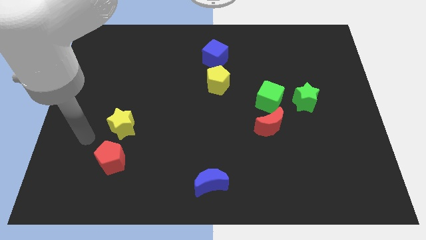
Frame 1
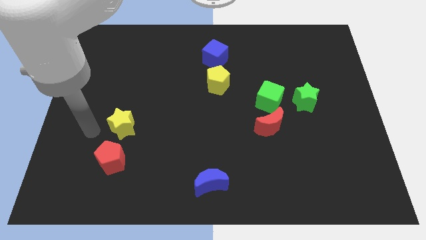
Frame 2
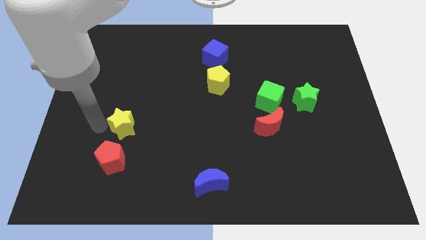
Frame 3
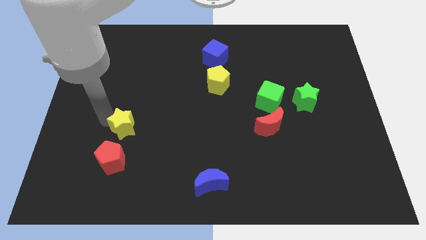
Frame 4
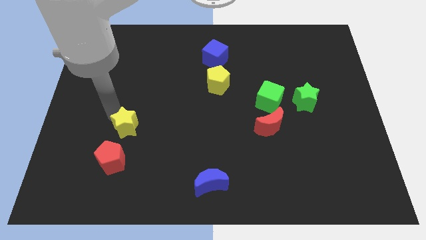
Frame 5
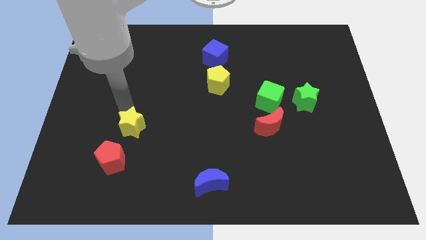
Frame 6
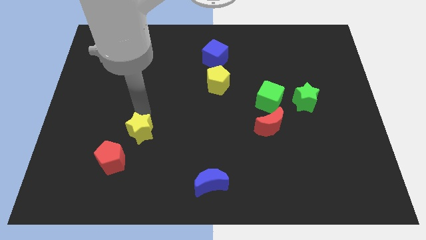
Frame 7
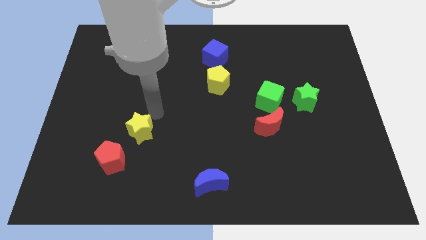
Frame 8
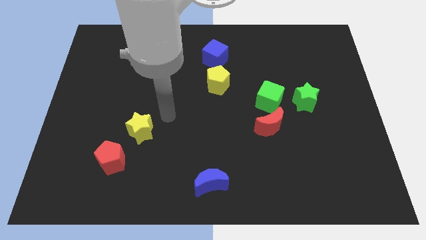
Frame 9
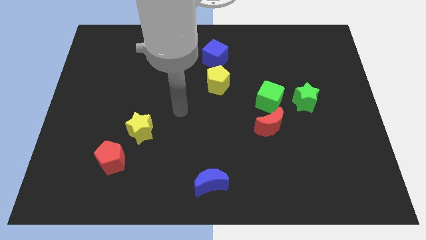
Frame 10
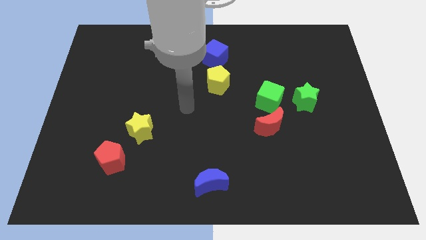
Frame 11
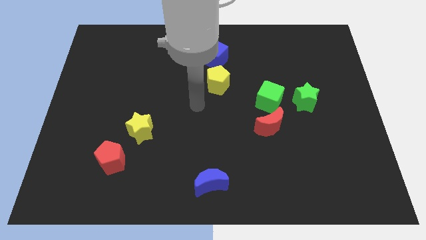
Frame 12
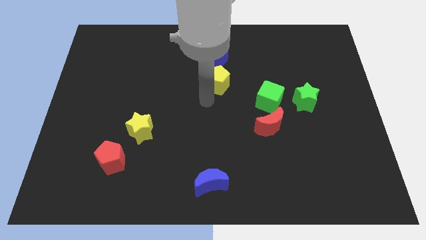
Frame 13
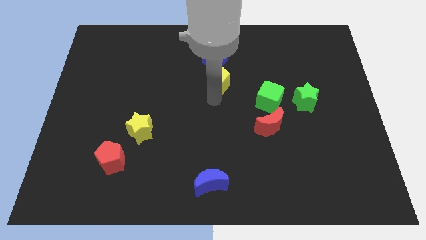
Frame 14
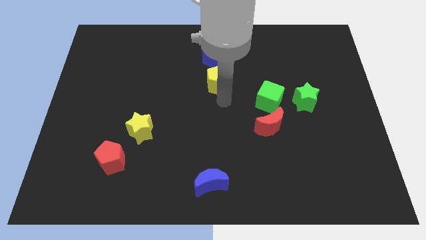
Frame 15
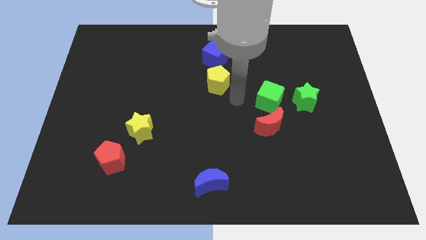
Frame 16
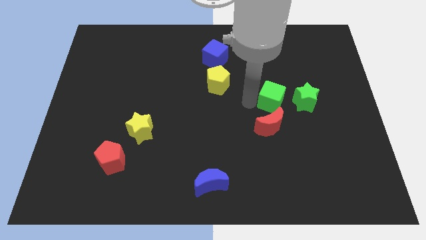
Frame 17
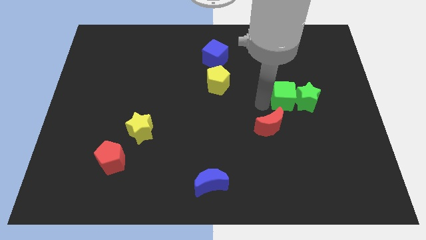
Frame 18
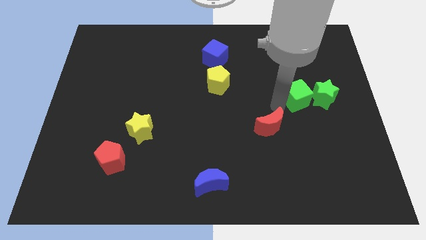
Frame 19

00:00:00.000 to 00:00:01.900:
separate the red moon from the green cube

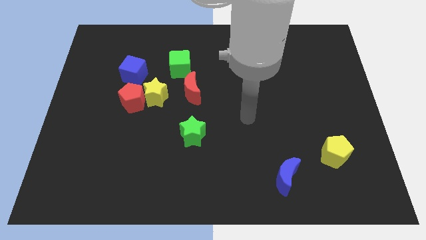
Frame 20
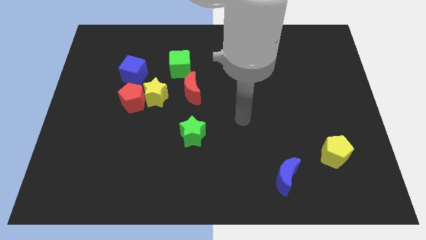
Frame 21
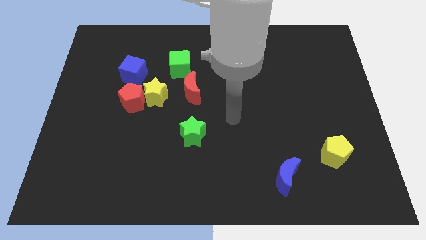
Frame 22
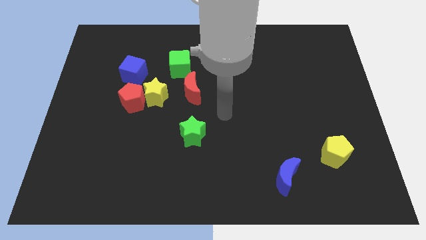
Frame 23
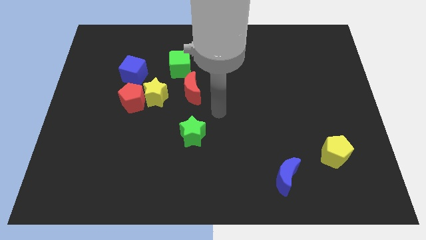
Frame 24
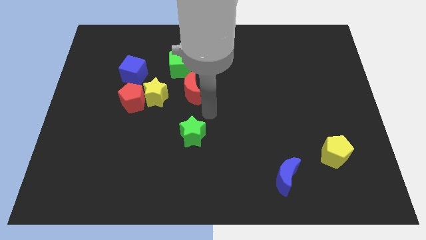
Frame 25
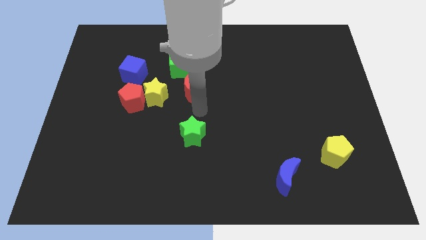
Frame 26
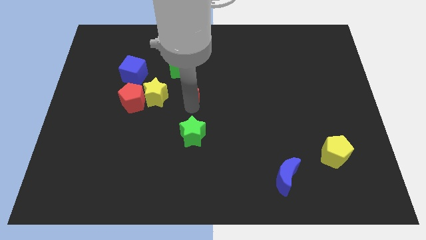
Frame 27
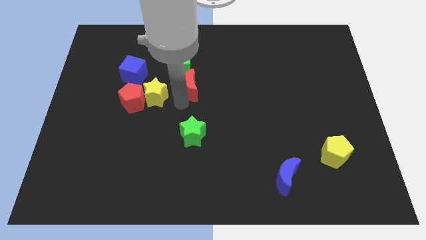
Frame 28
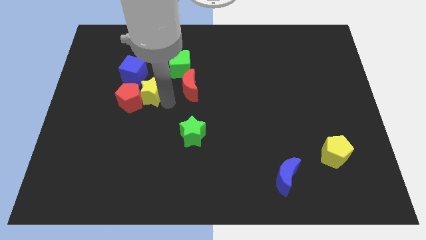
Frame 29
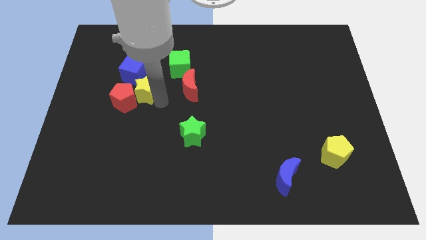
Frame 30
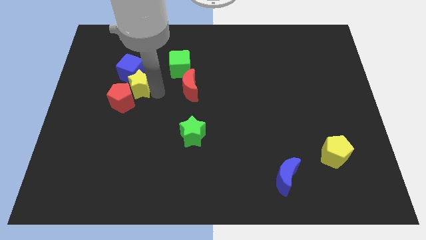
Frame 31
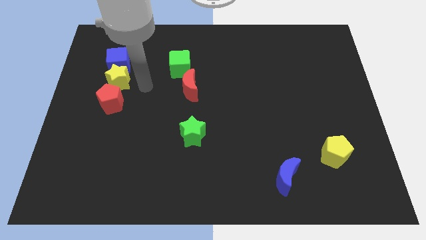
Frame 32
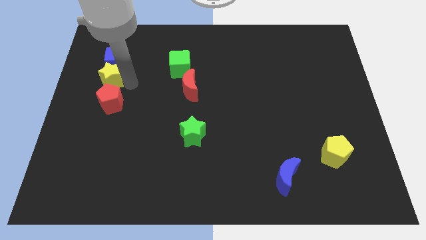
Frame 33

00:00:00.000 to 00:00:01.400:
move the red pentagon away from the yellow star and blue cube

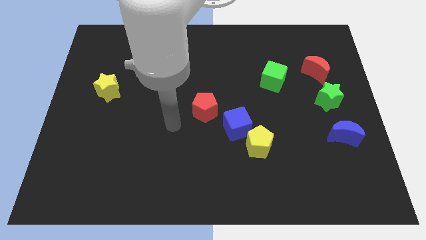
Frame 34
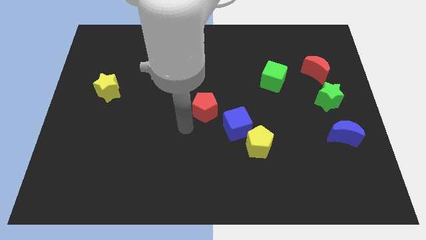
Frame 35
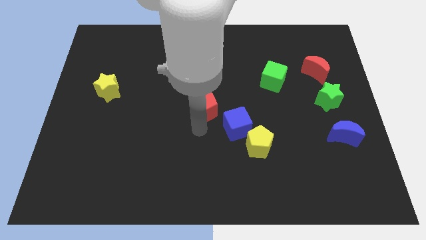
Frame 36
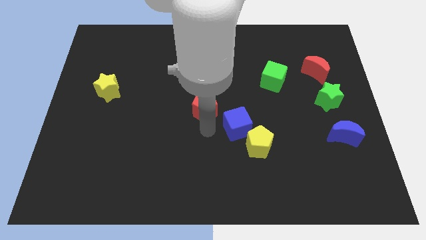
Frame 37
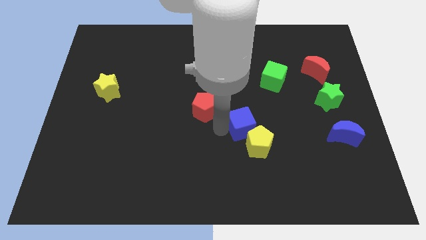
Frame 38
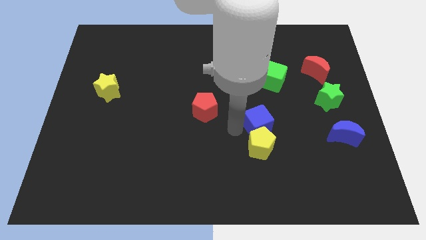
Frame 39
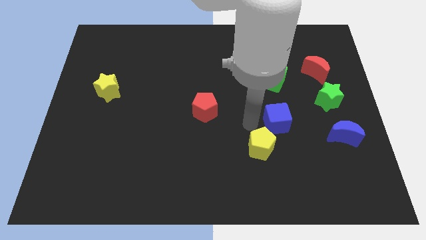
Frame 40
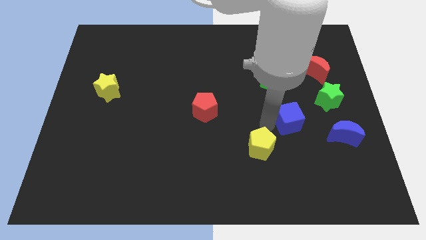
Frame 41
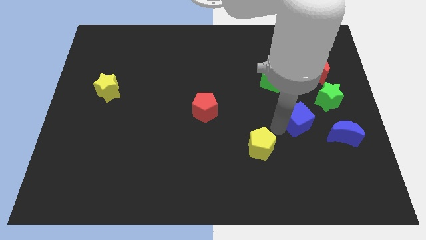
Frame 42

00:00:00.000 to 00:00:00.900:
pull the yellow pentagon apart from the blue cube

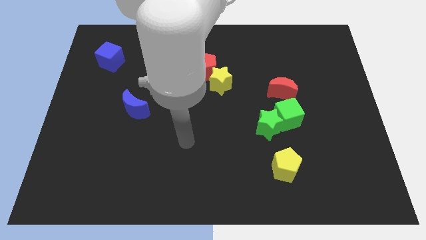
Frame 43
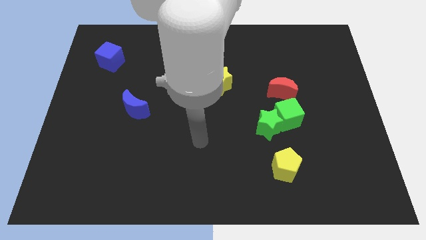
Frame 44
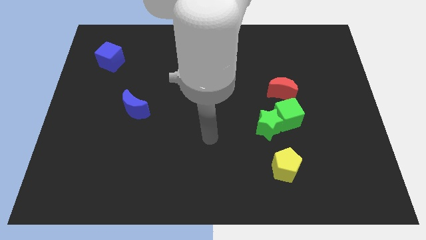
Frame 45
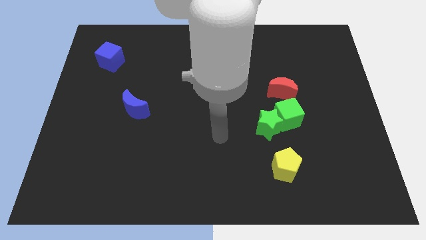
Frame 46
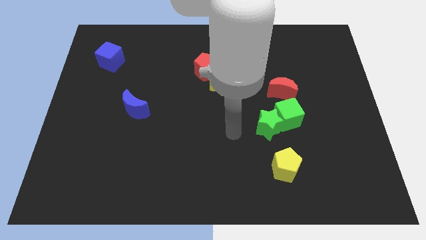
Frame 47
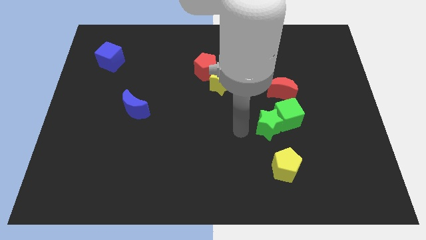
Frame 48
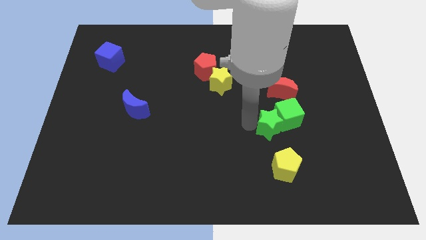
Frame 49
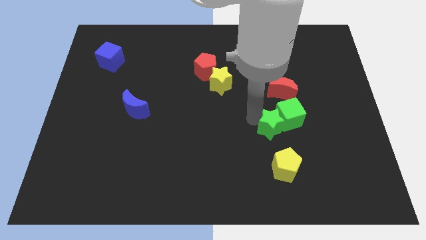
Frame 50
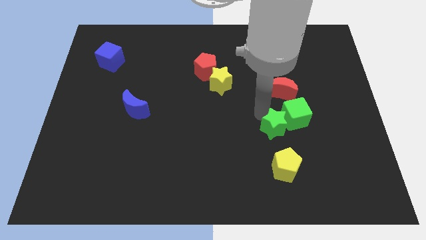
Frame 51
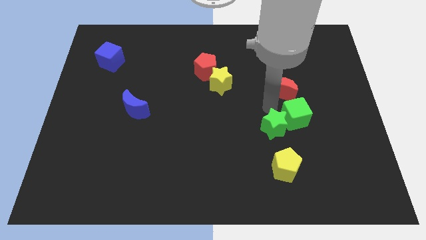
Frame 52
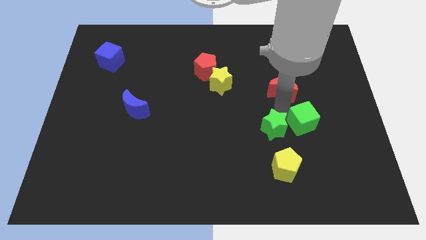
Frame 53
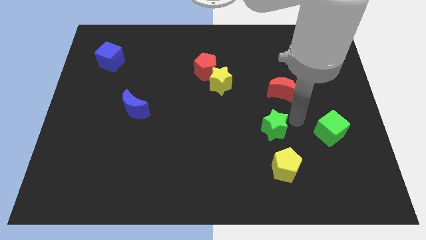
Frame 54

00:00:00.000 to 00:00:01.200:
move the green star away from the green cube

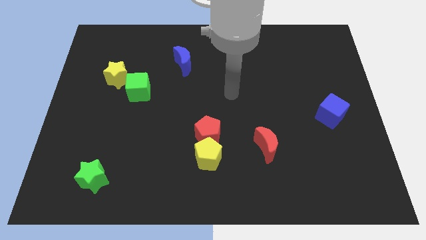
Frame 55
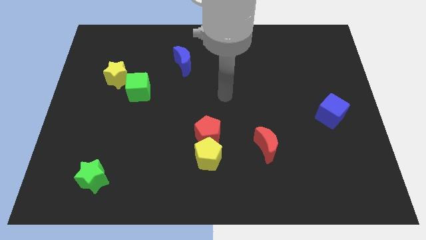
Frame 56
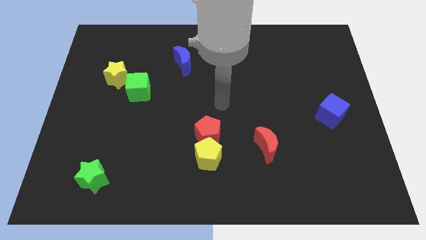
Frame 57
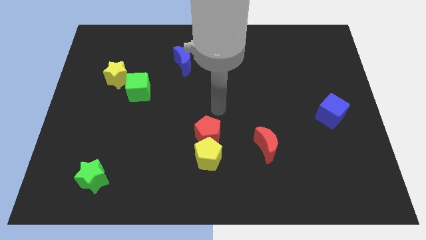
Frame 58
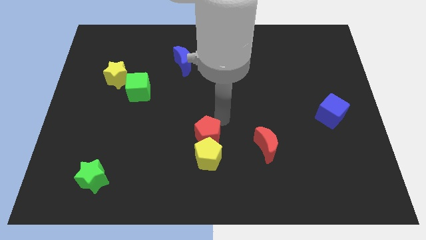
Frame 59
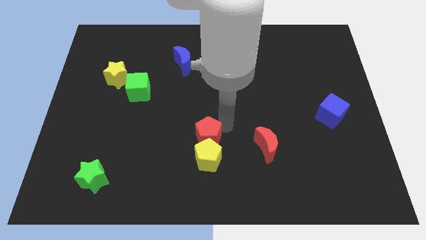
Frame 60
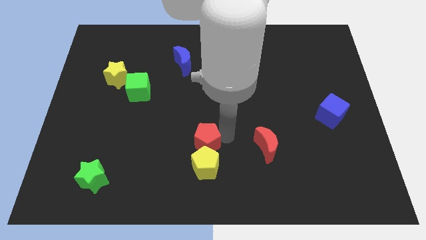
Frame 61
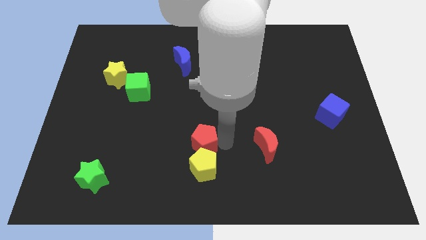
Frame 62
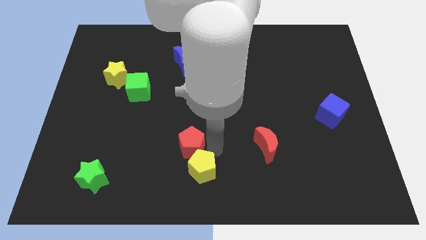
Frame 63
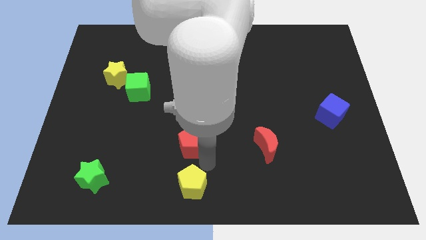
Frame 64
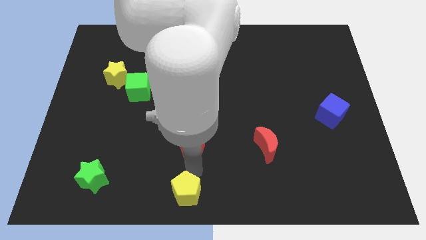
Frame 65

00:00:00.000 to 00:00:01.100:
separate the red pentagon from the yellow pentagon

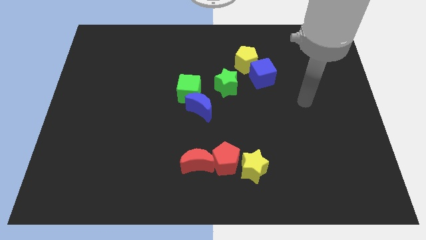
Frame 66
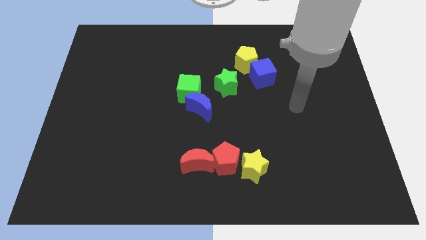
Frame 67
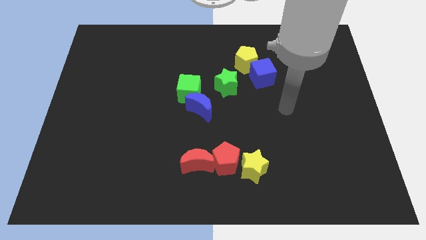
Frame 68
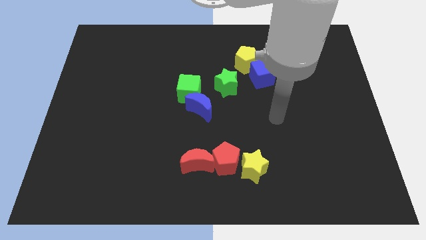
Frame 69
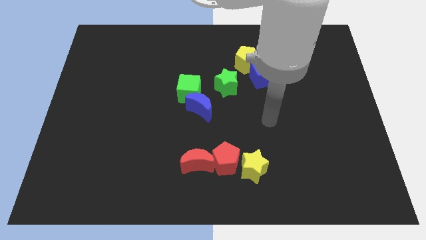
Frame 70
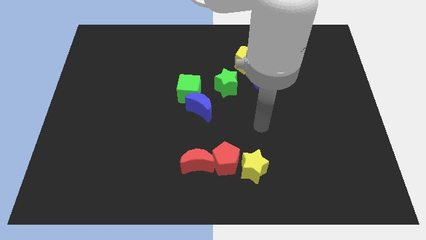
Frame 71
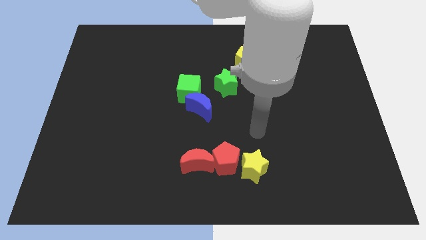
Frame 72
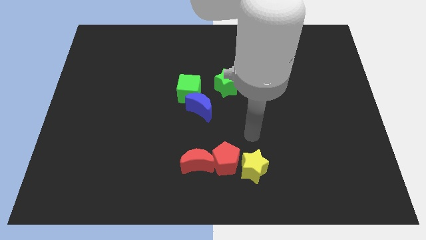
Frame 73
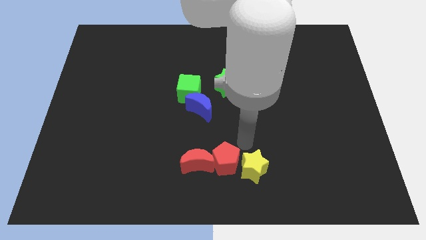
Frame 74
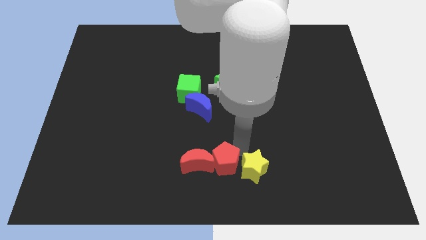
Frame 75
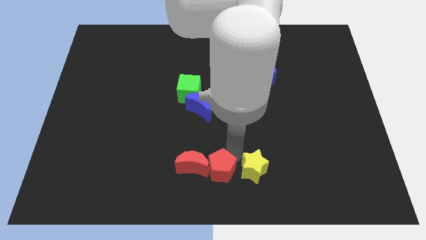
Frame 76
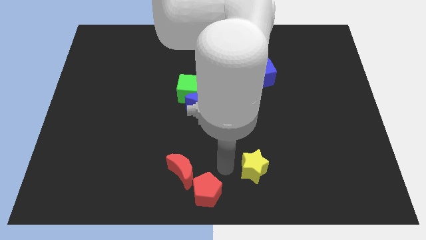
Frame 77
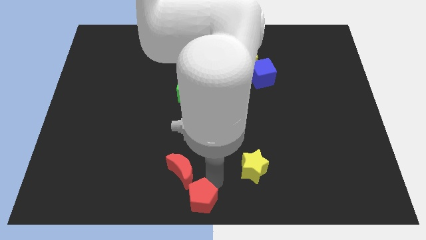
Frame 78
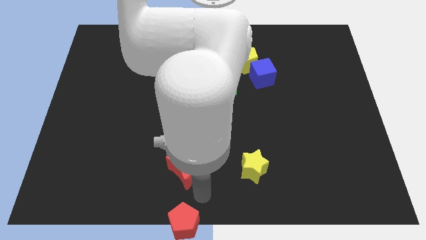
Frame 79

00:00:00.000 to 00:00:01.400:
separate the red moon from the red pentagon

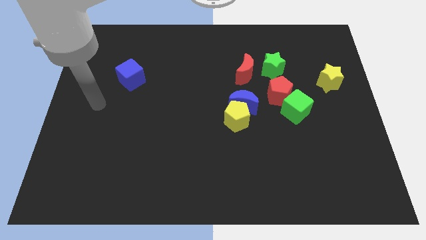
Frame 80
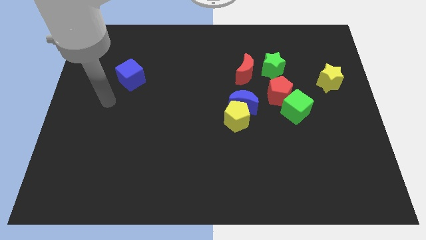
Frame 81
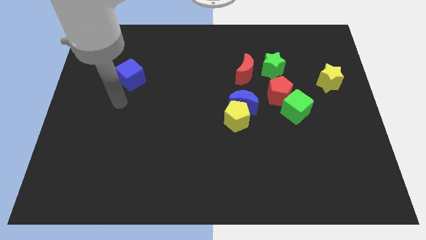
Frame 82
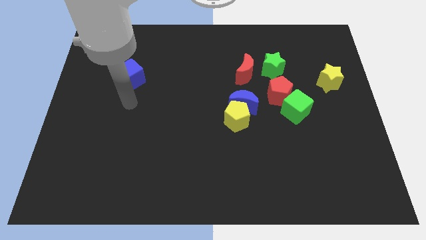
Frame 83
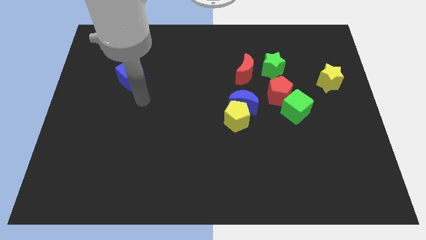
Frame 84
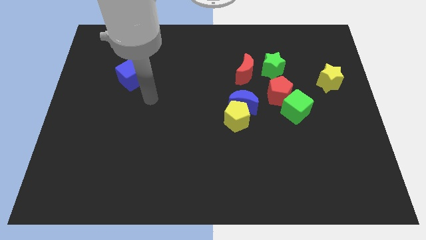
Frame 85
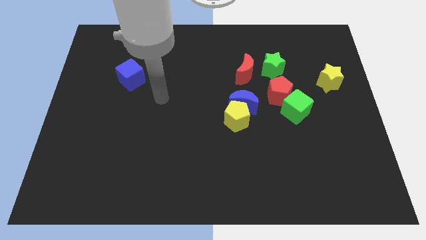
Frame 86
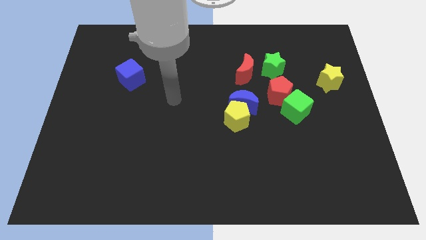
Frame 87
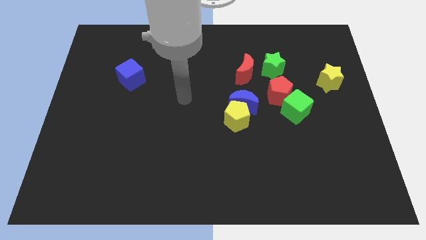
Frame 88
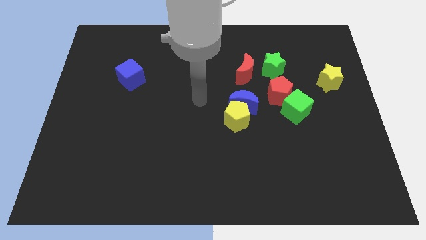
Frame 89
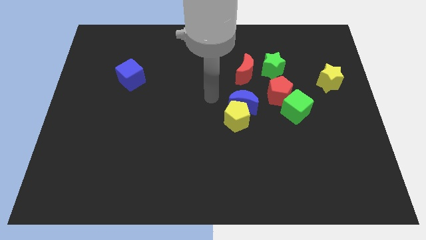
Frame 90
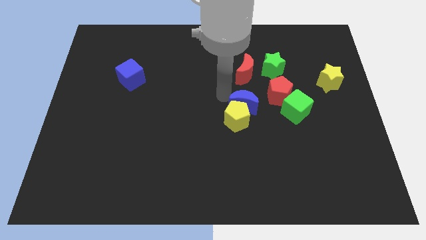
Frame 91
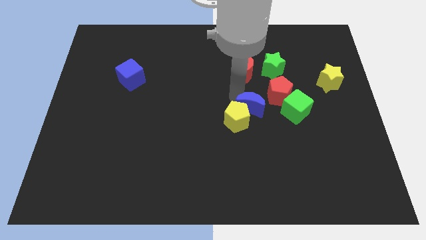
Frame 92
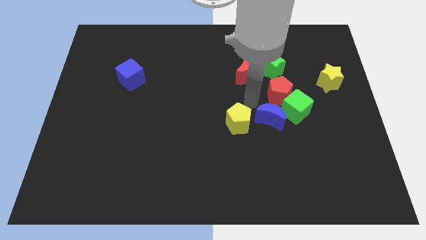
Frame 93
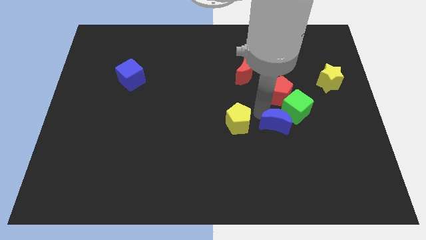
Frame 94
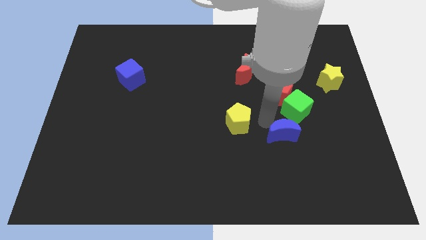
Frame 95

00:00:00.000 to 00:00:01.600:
move the yellow pentagon away from the blue moon
